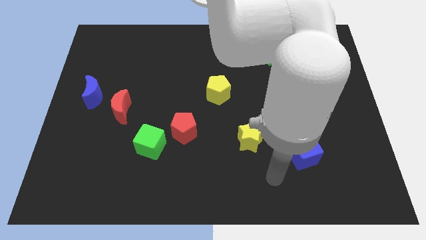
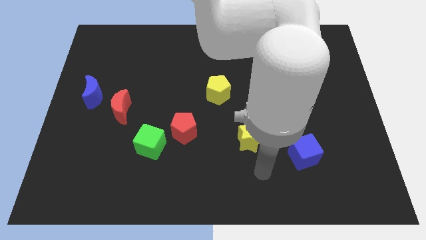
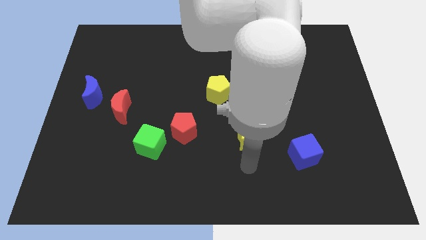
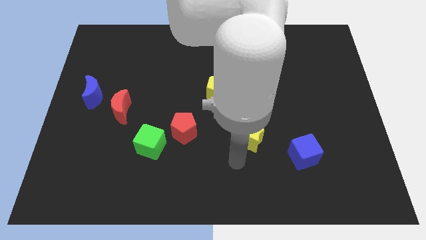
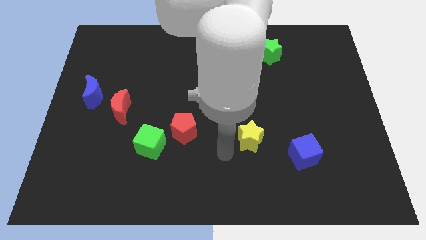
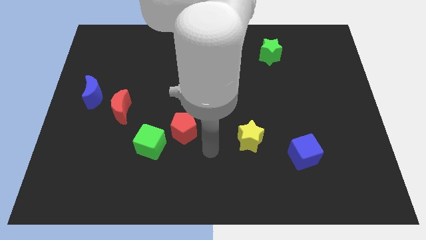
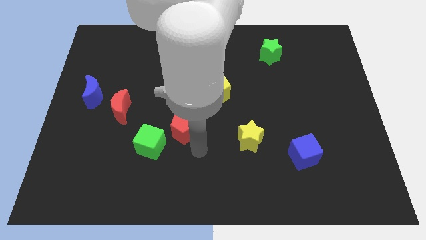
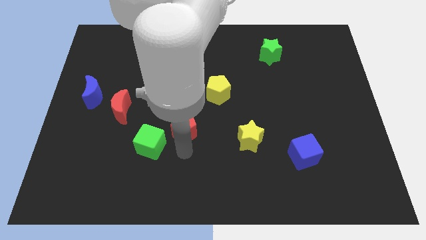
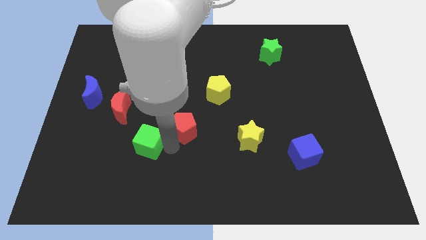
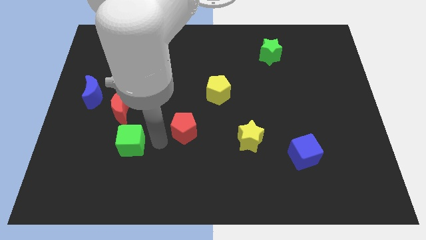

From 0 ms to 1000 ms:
move the red pentagon away from the green cube

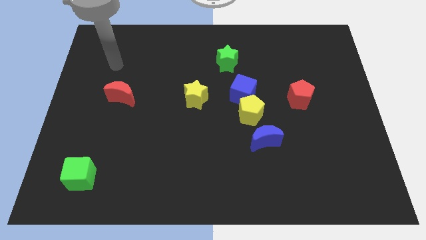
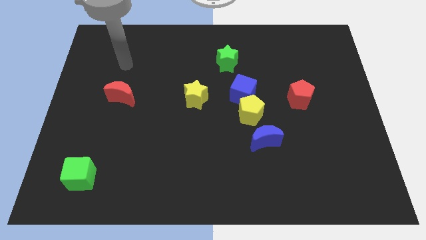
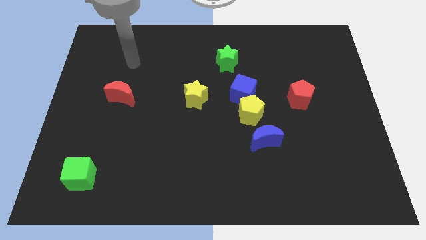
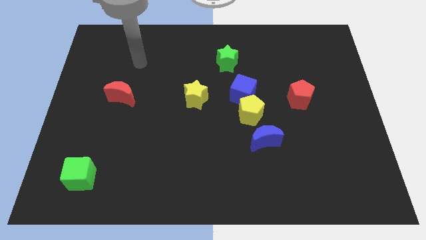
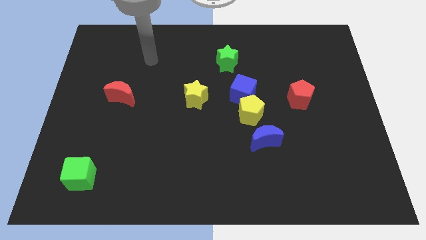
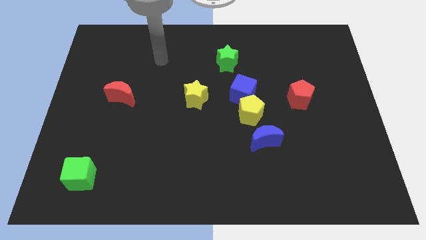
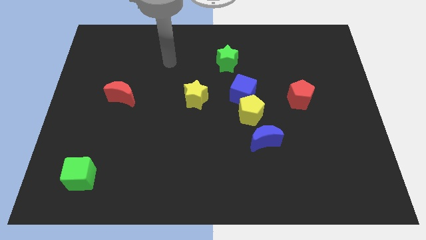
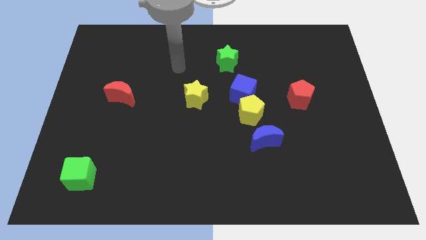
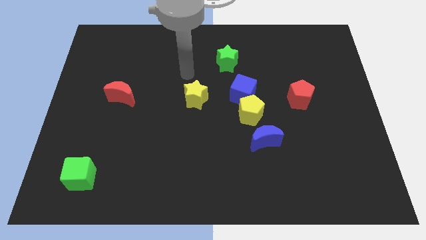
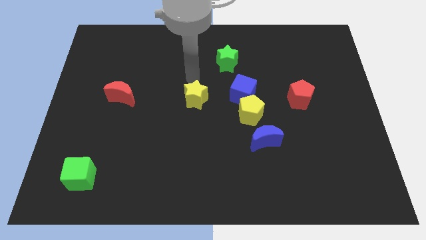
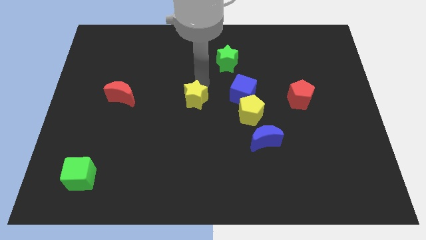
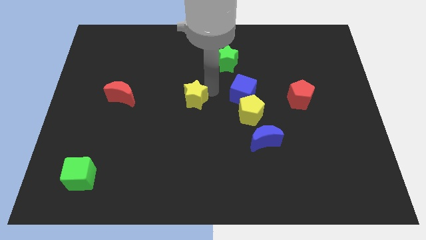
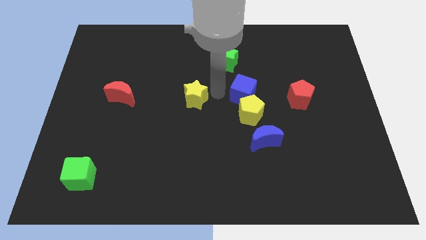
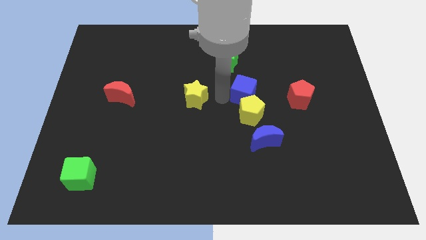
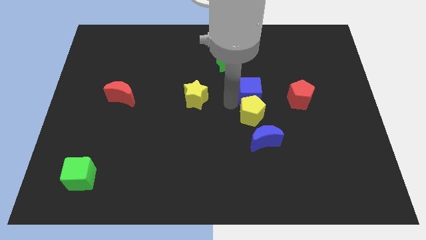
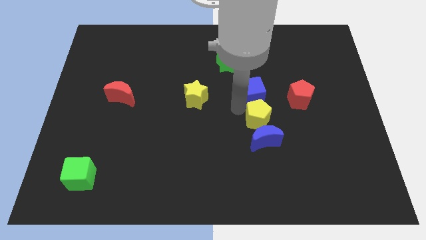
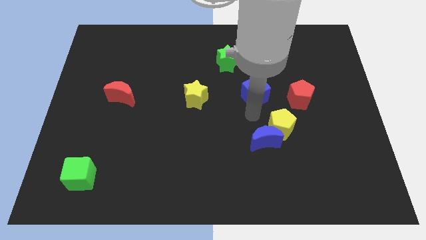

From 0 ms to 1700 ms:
pull the blue cube apart from the yellow pentagon

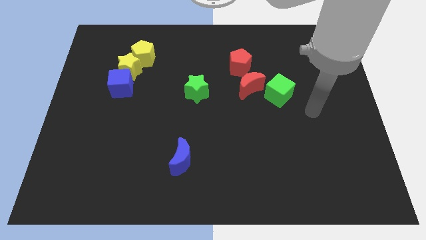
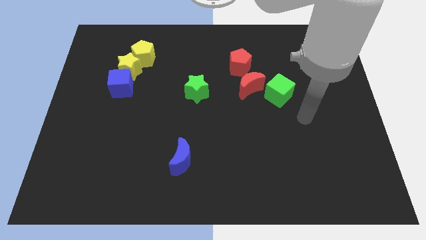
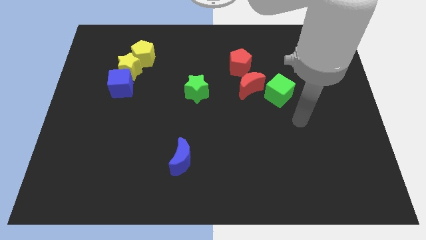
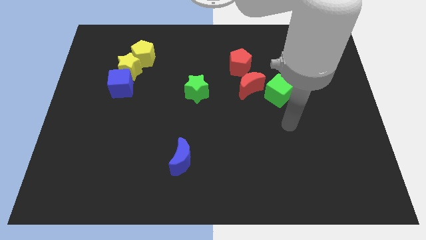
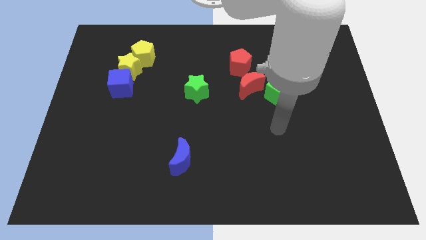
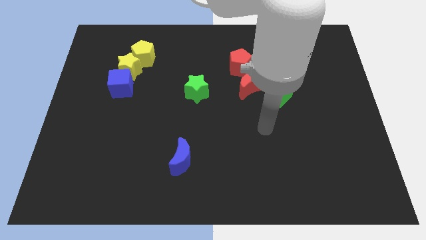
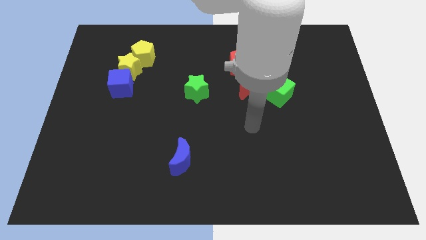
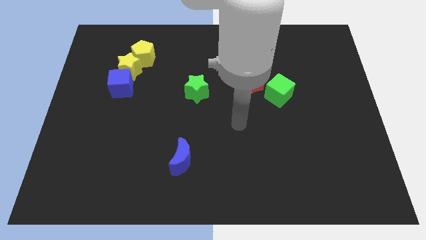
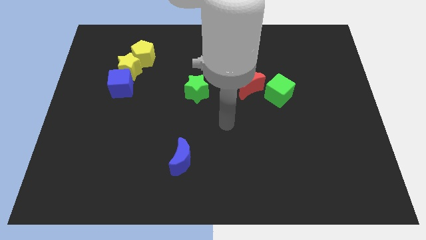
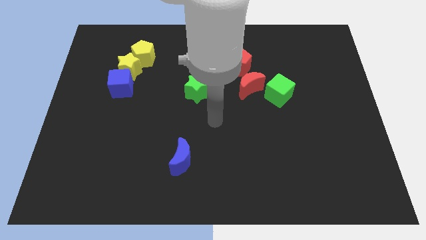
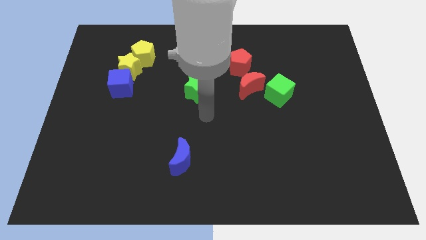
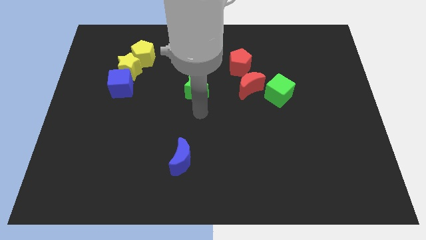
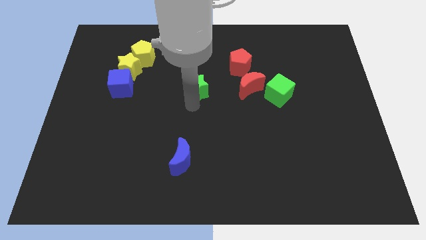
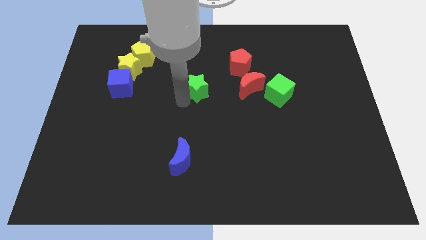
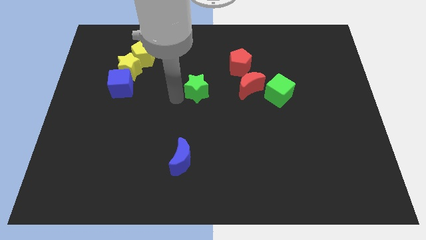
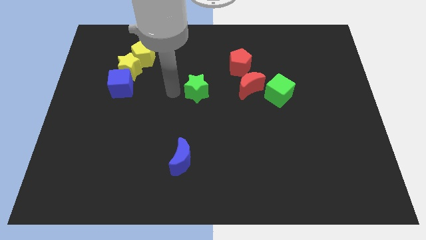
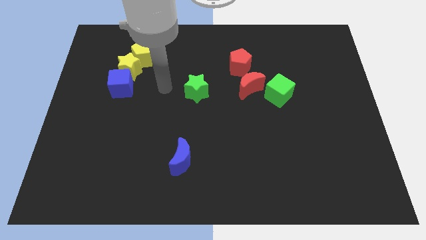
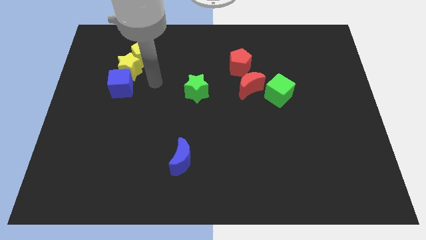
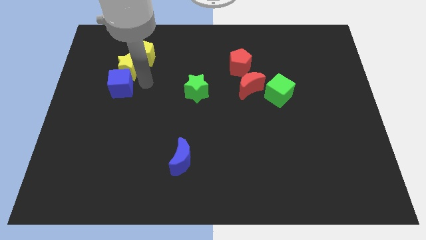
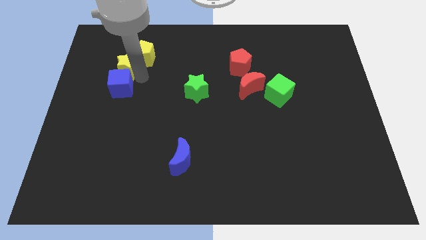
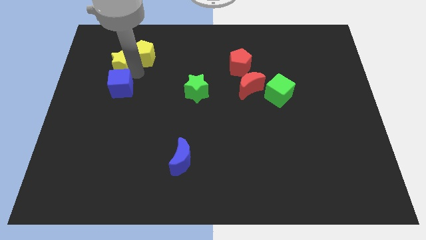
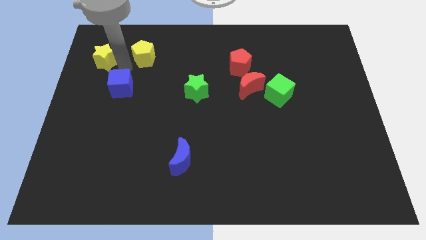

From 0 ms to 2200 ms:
pull the blue cube apart from the yellow star

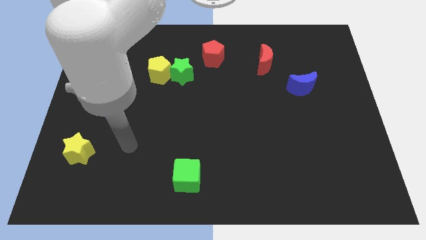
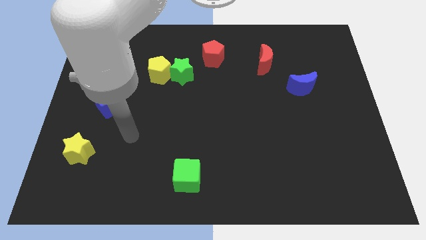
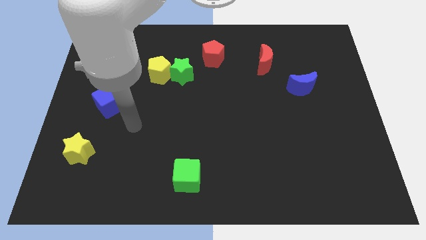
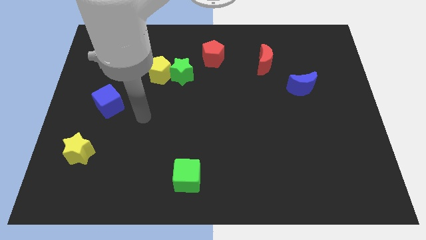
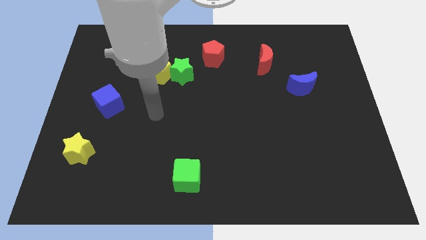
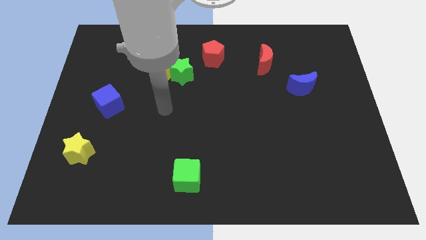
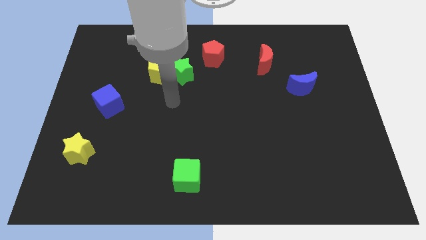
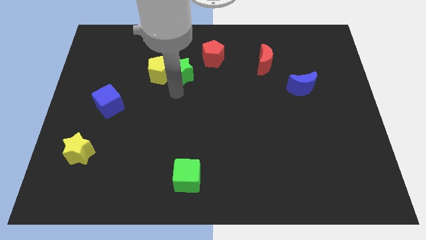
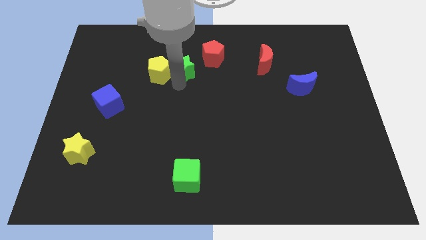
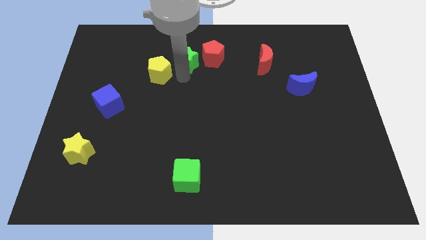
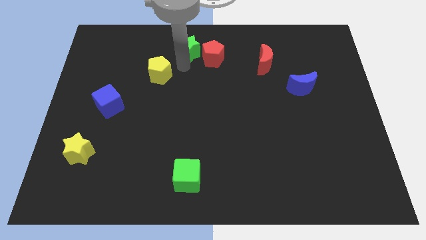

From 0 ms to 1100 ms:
separate the yellow pentagon from the green star

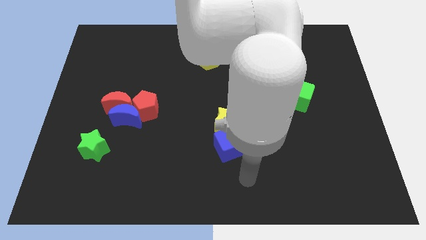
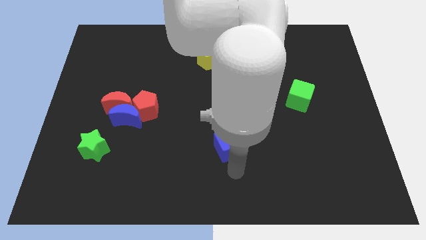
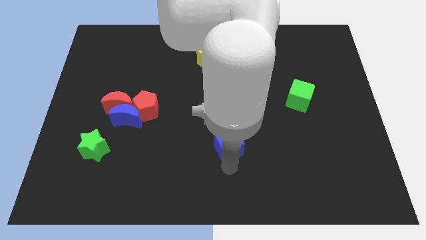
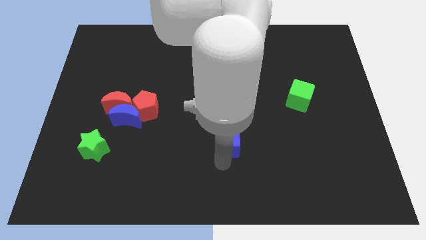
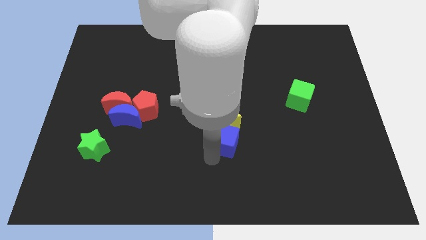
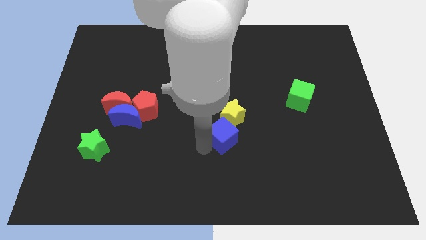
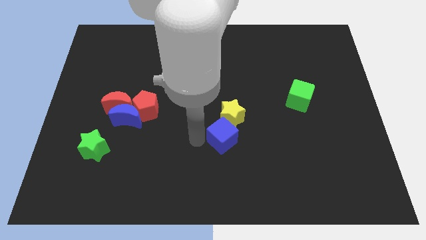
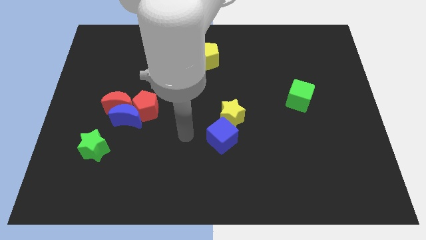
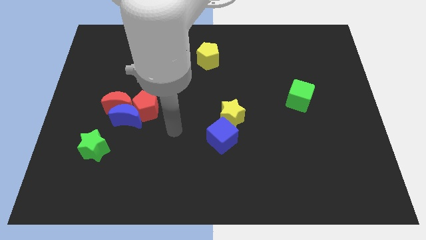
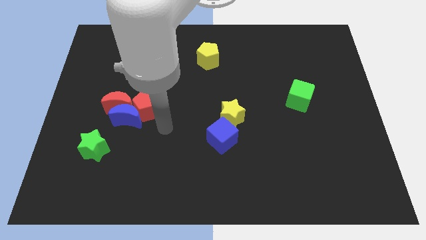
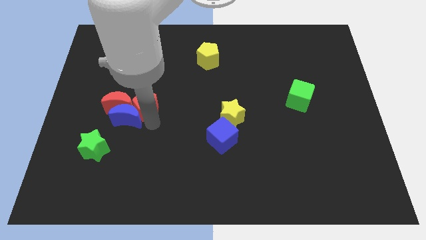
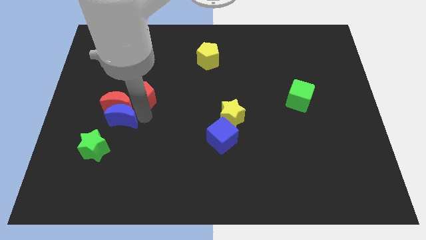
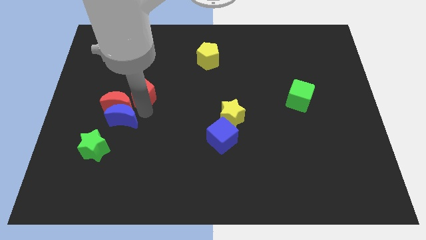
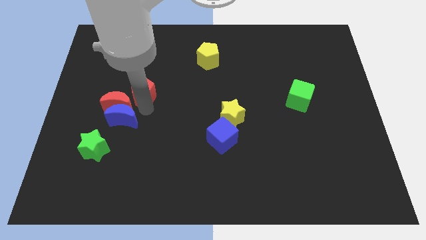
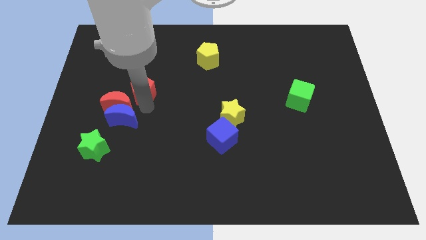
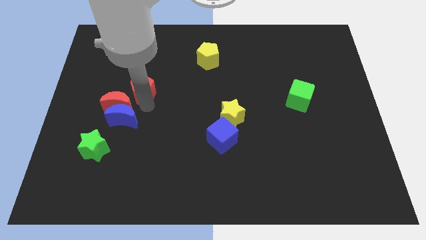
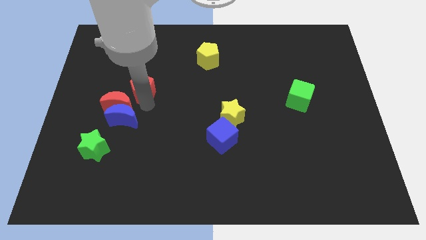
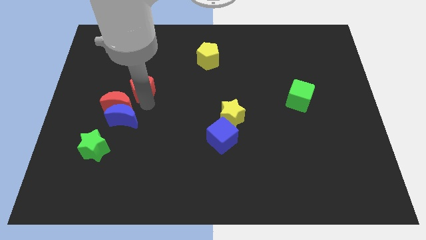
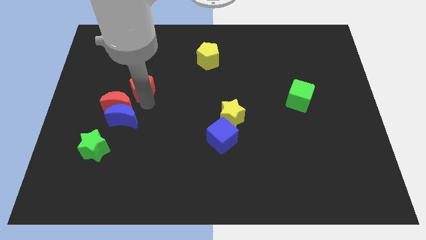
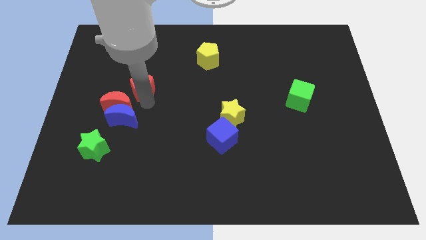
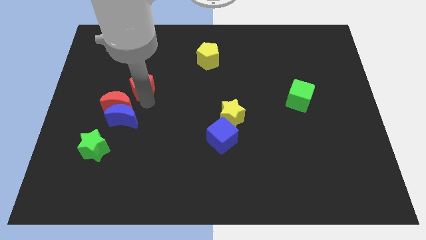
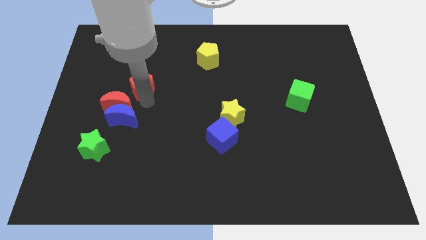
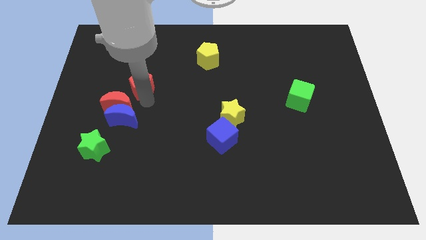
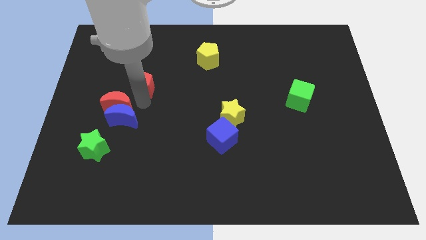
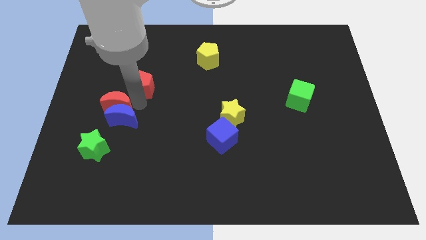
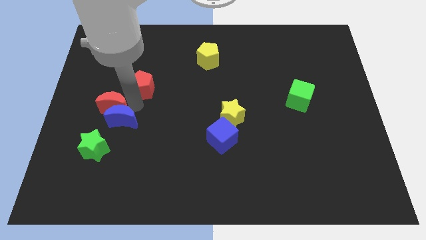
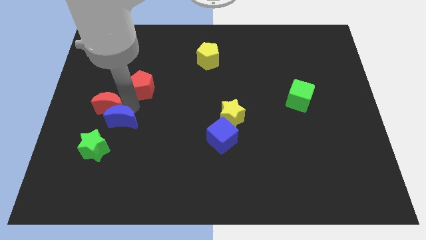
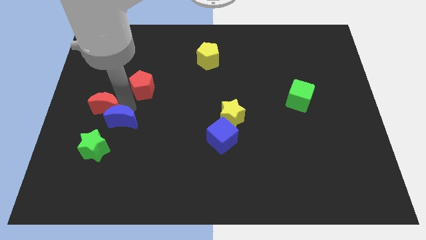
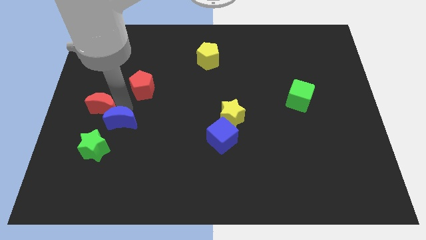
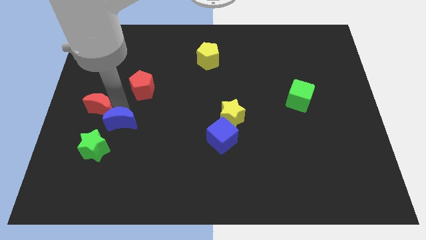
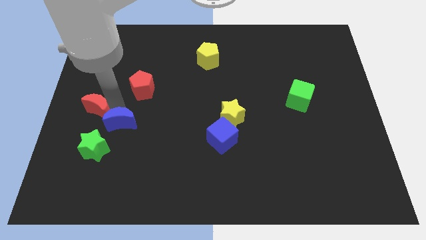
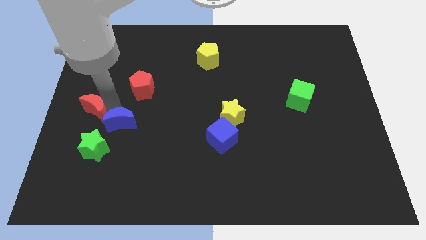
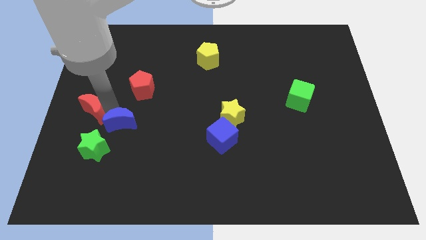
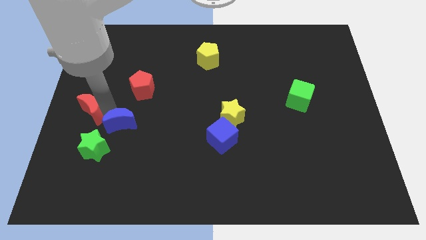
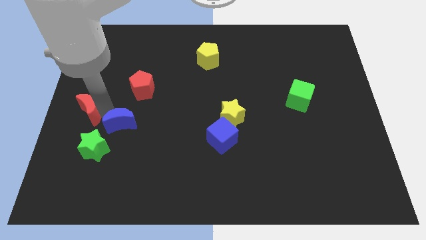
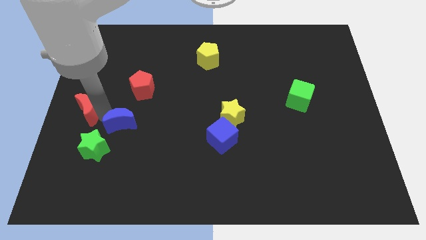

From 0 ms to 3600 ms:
pull the red moon apart from the blue moon and red pentagon
